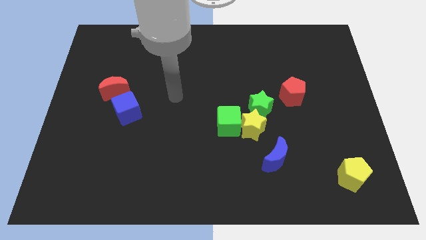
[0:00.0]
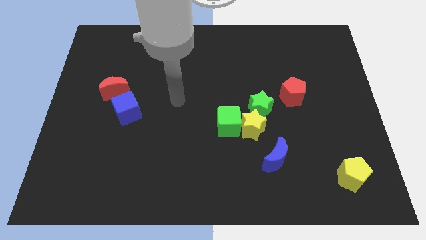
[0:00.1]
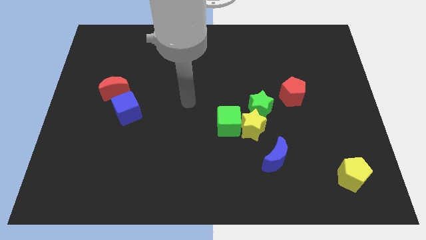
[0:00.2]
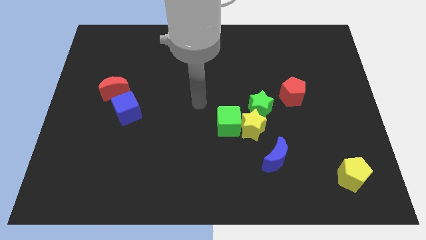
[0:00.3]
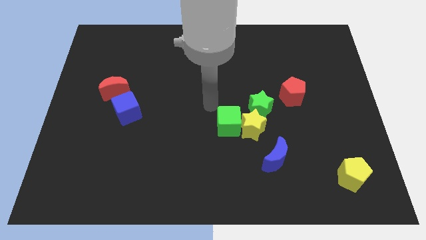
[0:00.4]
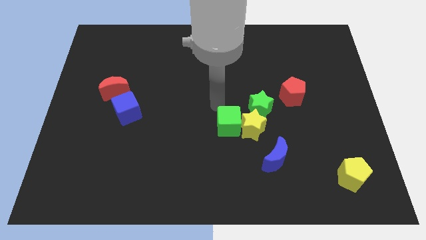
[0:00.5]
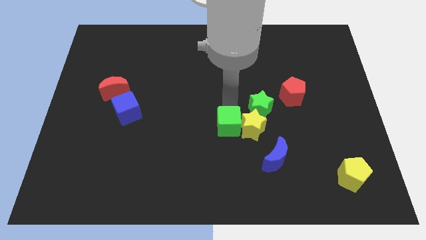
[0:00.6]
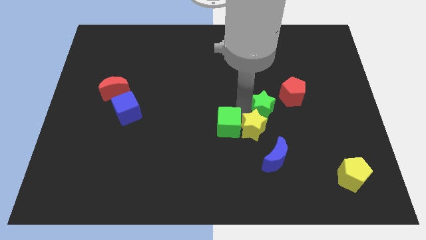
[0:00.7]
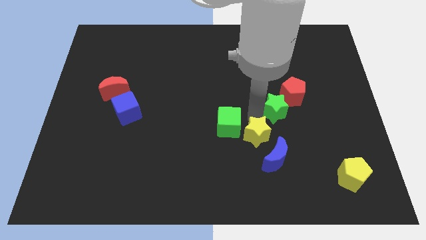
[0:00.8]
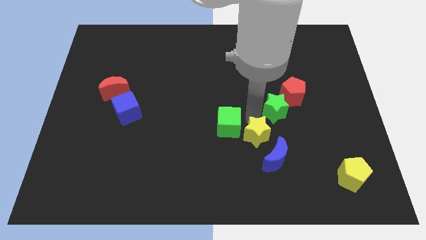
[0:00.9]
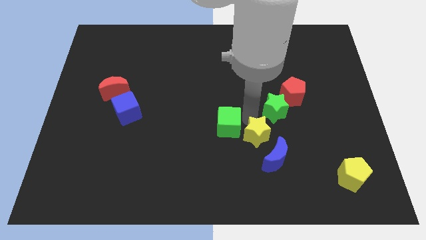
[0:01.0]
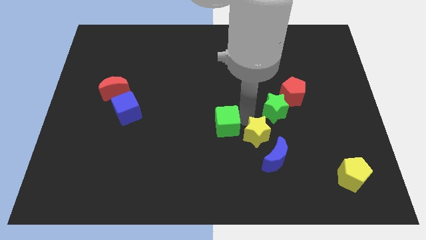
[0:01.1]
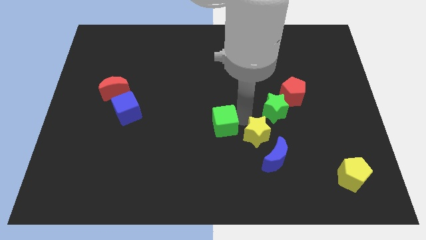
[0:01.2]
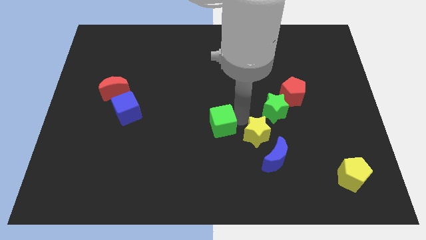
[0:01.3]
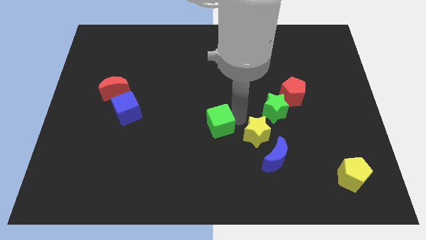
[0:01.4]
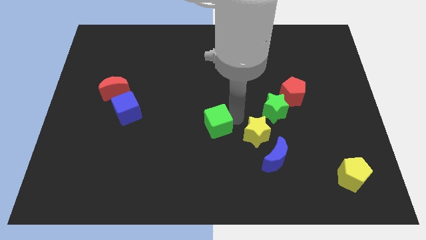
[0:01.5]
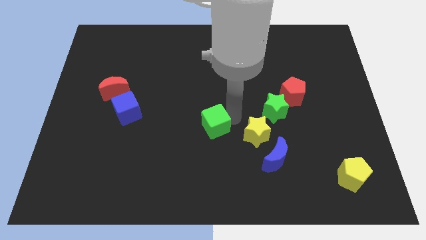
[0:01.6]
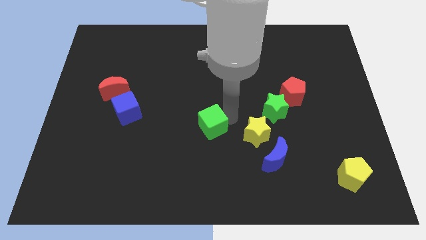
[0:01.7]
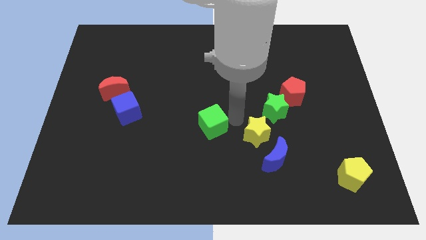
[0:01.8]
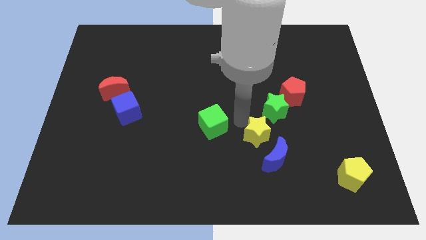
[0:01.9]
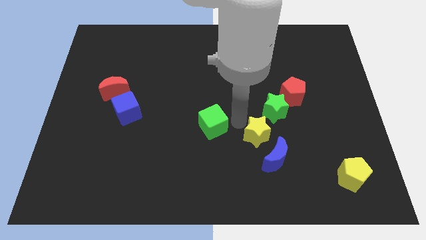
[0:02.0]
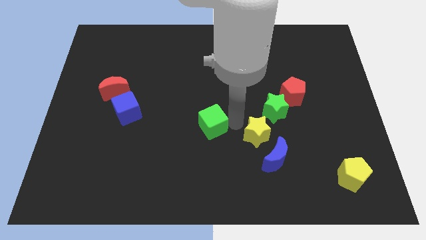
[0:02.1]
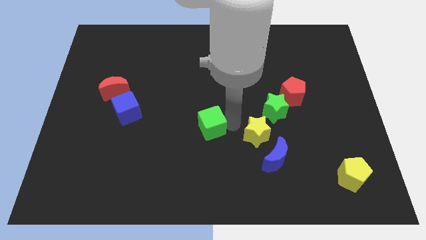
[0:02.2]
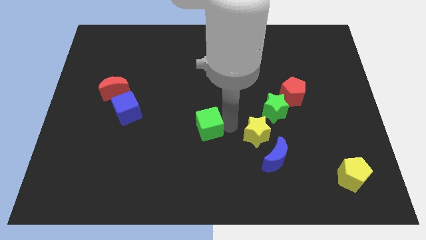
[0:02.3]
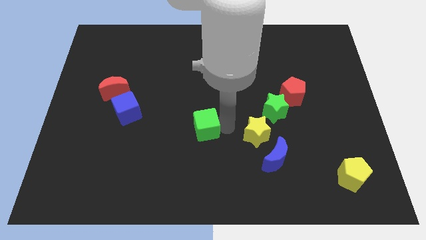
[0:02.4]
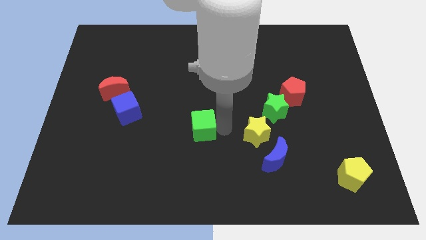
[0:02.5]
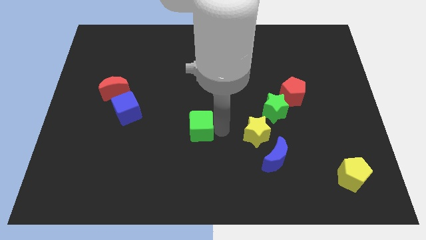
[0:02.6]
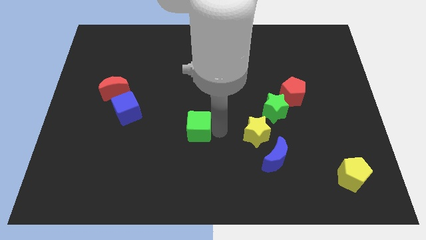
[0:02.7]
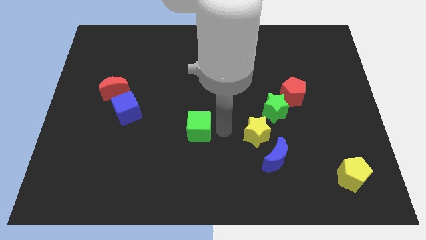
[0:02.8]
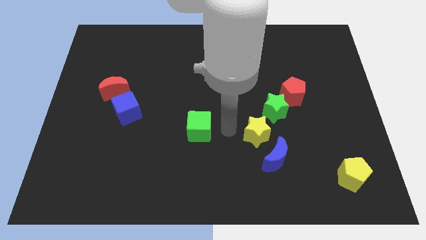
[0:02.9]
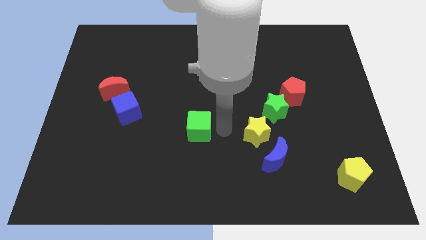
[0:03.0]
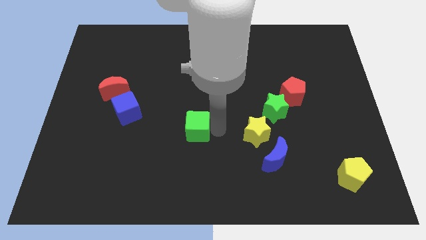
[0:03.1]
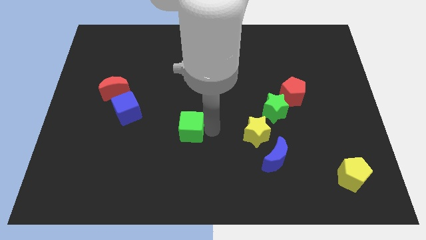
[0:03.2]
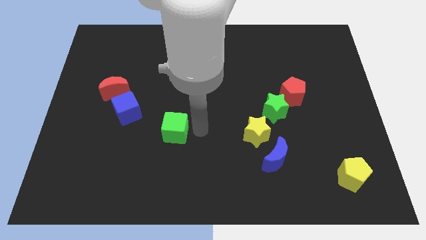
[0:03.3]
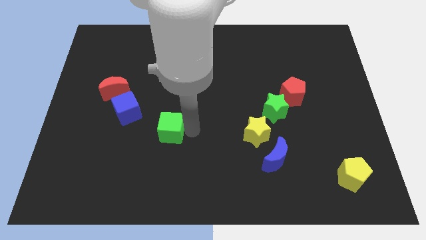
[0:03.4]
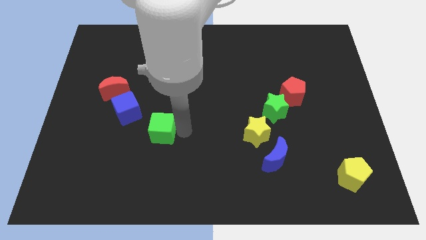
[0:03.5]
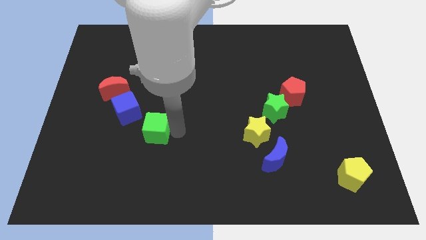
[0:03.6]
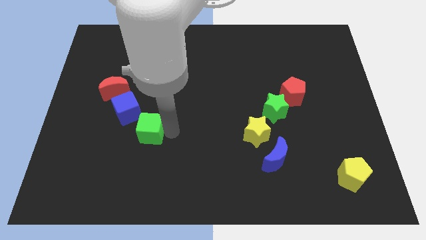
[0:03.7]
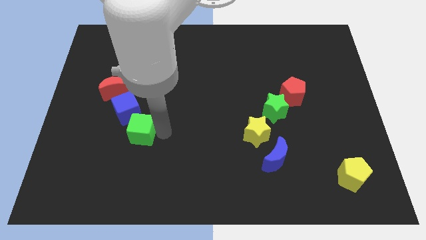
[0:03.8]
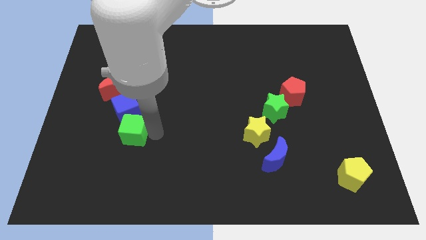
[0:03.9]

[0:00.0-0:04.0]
slide the green cube left

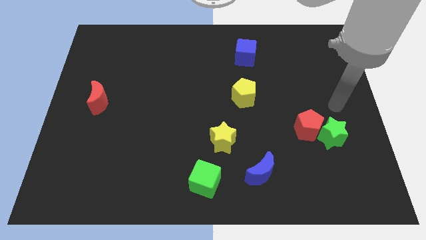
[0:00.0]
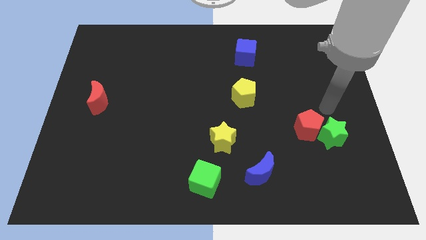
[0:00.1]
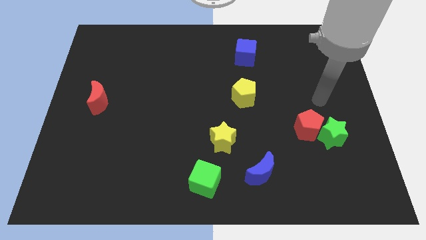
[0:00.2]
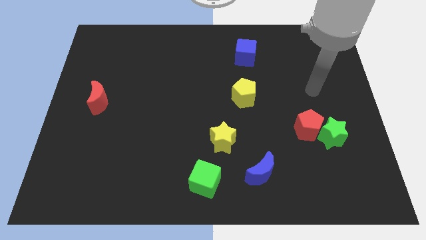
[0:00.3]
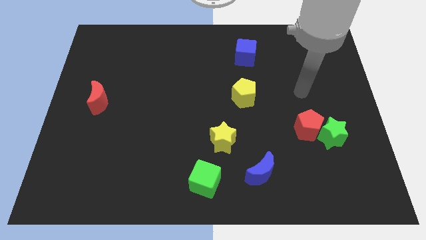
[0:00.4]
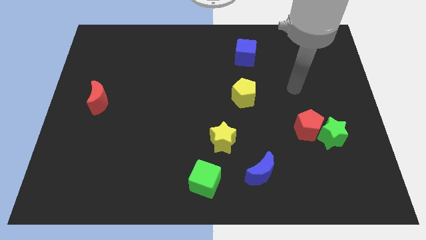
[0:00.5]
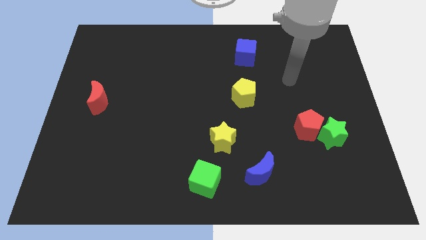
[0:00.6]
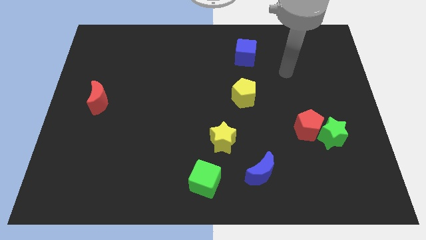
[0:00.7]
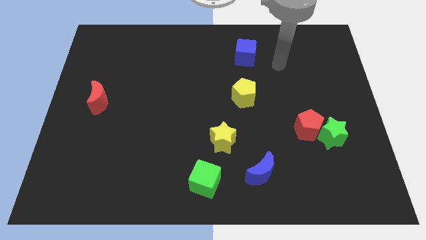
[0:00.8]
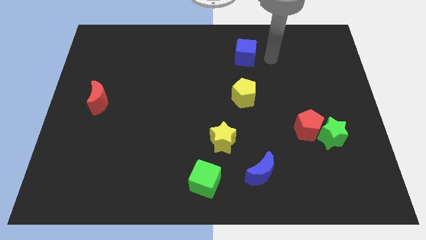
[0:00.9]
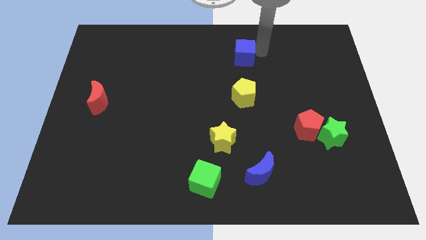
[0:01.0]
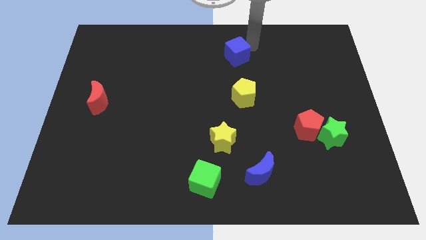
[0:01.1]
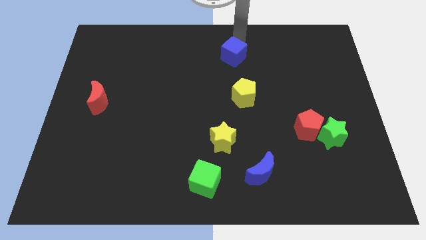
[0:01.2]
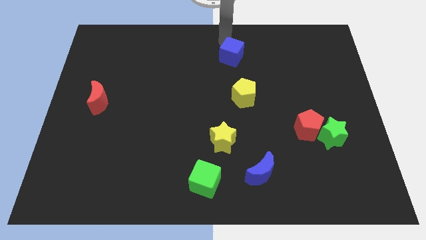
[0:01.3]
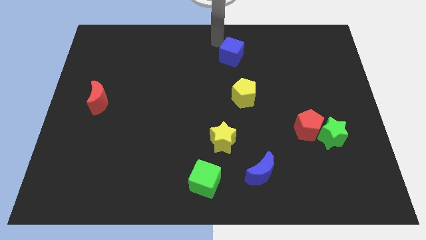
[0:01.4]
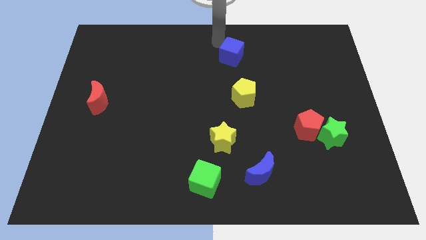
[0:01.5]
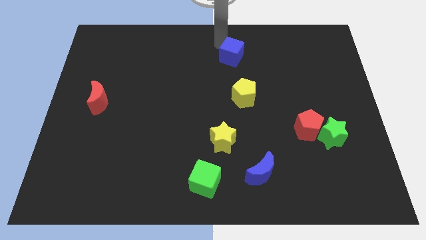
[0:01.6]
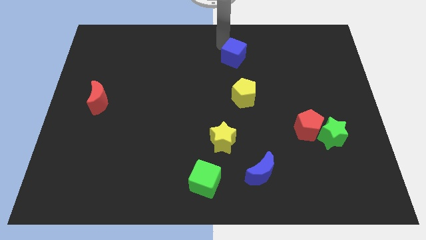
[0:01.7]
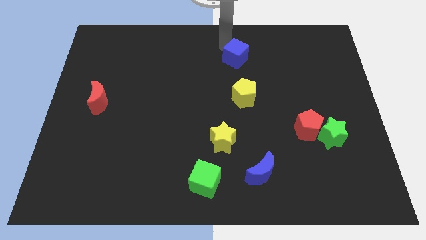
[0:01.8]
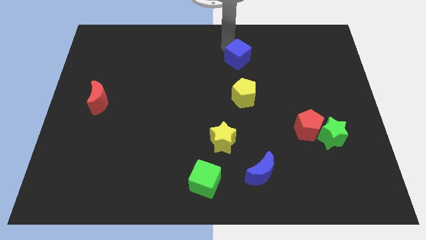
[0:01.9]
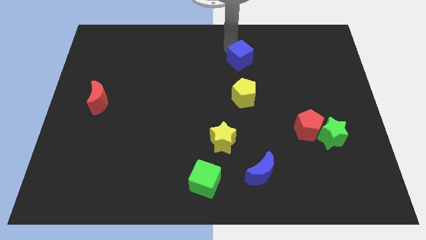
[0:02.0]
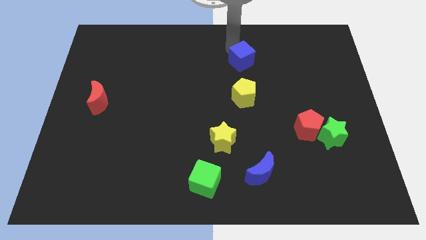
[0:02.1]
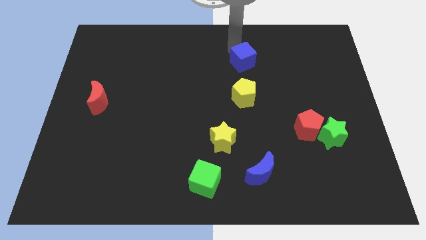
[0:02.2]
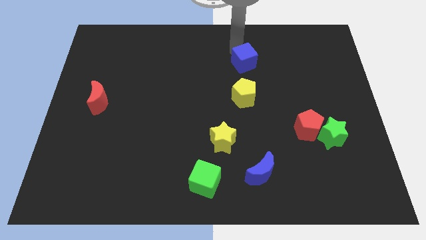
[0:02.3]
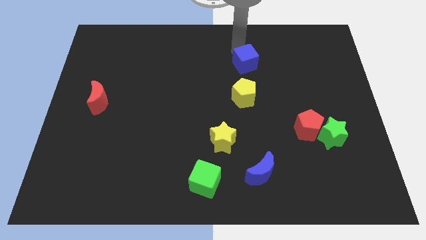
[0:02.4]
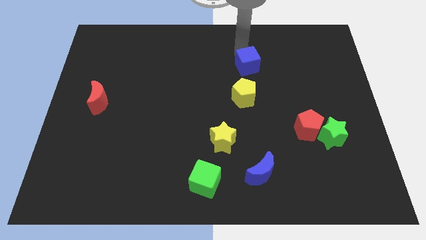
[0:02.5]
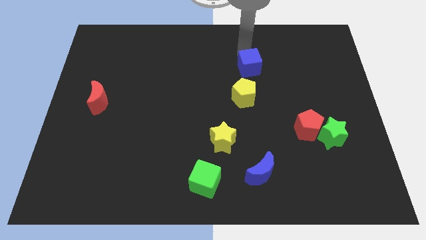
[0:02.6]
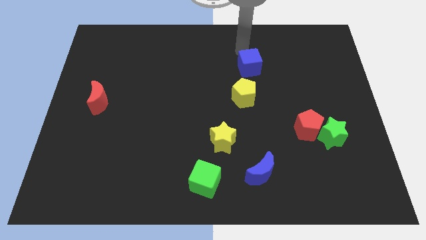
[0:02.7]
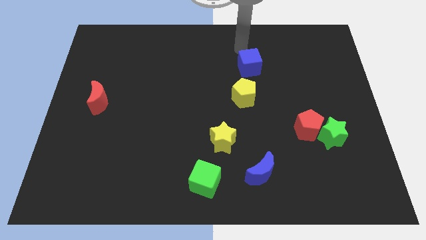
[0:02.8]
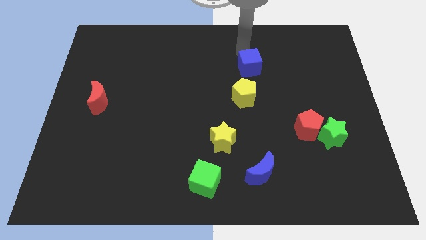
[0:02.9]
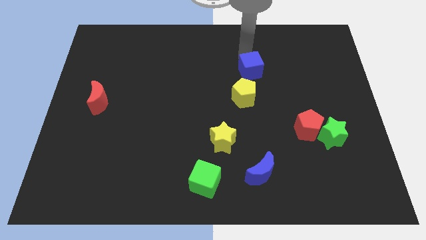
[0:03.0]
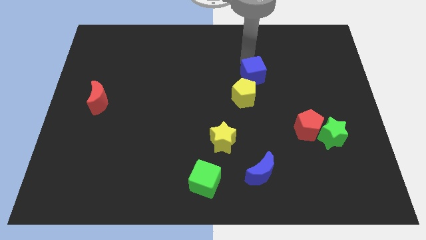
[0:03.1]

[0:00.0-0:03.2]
push the blue cube downwards a little bit

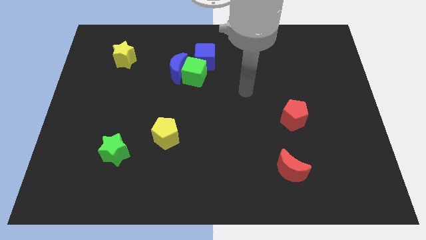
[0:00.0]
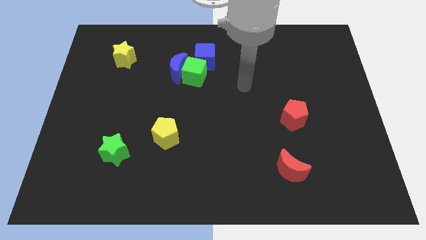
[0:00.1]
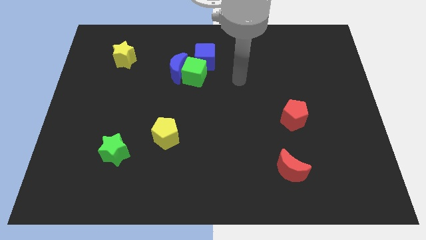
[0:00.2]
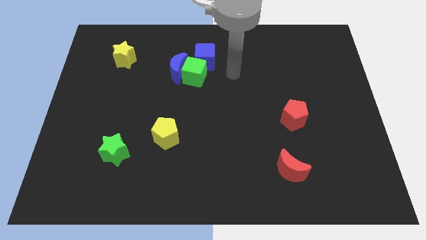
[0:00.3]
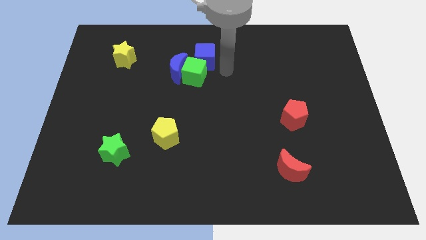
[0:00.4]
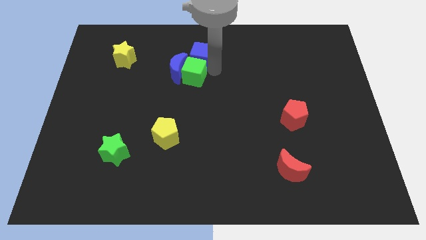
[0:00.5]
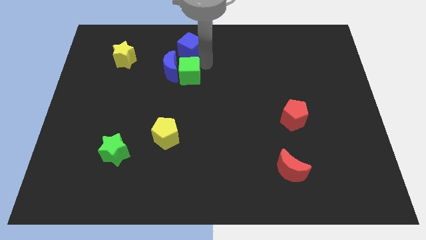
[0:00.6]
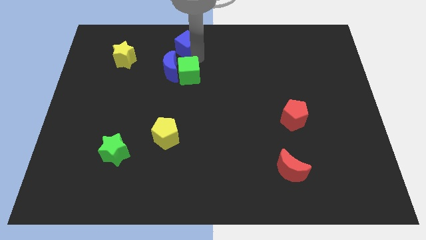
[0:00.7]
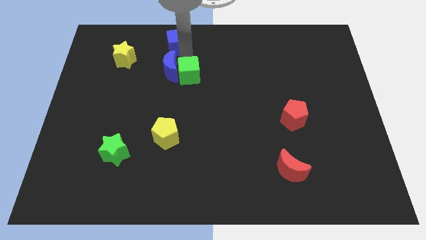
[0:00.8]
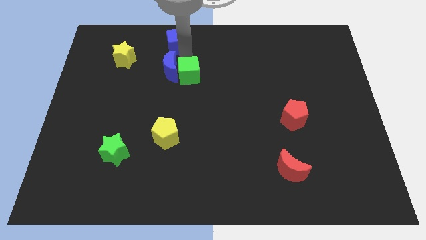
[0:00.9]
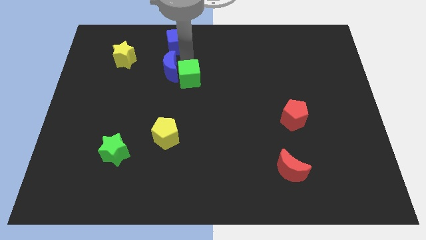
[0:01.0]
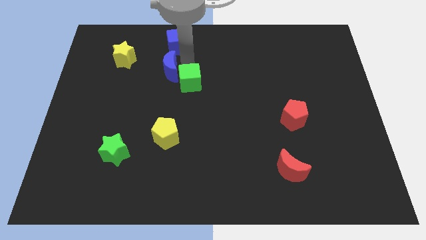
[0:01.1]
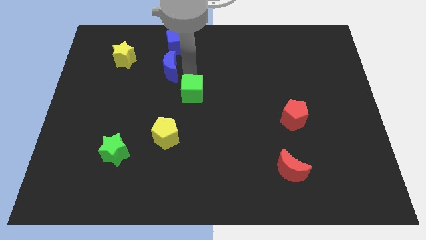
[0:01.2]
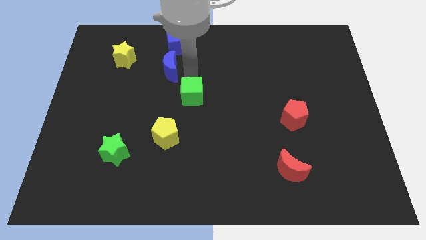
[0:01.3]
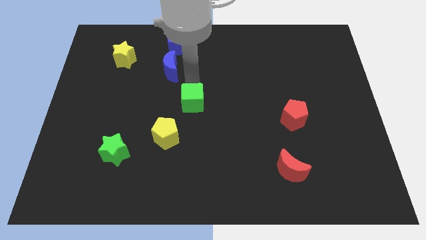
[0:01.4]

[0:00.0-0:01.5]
slide the green cube down a little
